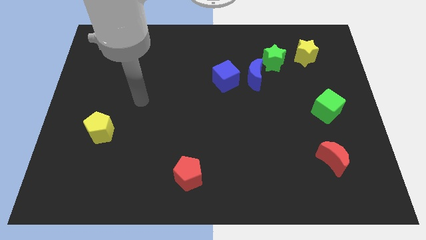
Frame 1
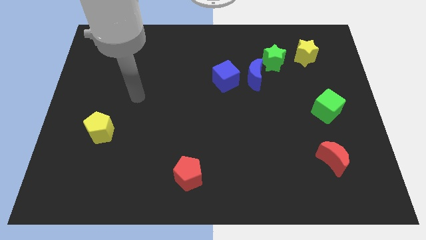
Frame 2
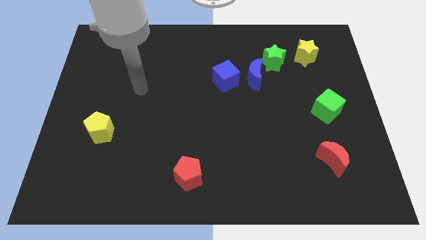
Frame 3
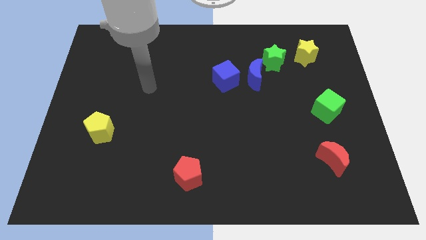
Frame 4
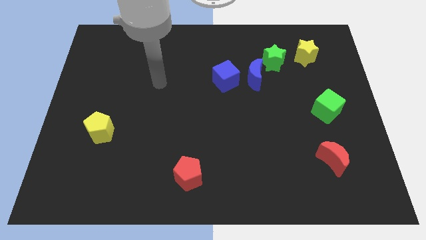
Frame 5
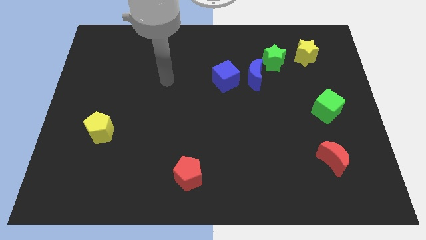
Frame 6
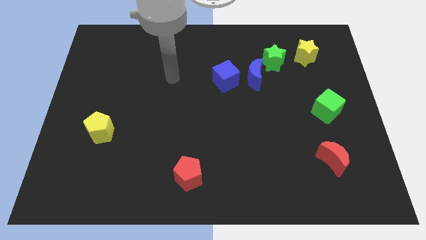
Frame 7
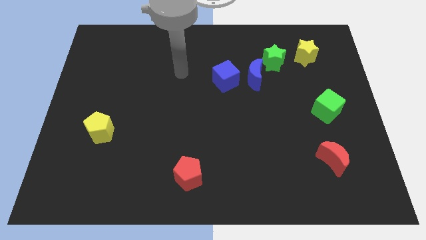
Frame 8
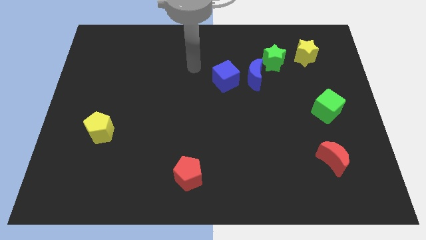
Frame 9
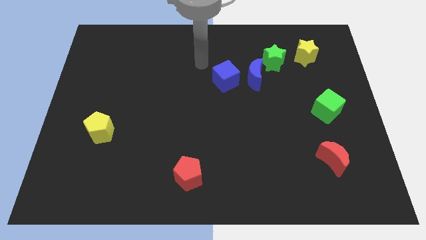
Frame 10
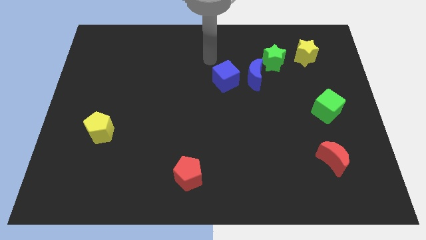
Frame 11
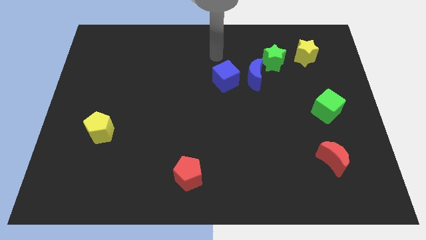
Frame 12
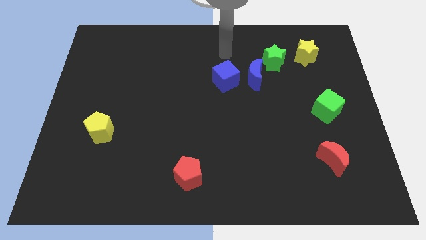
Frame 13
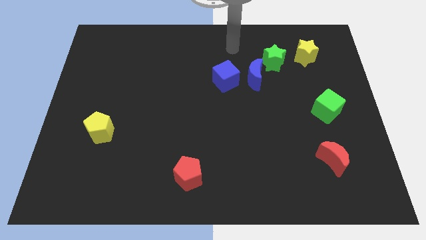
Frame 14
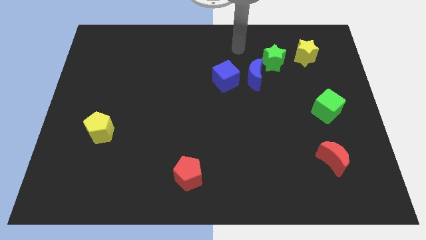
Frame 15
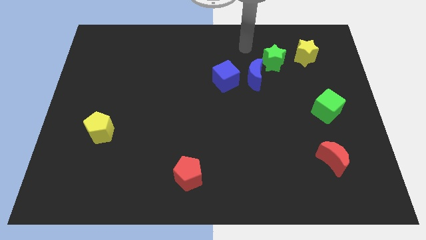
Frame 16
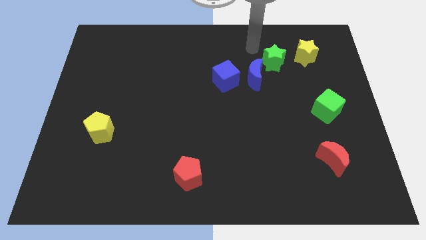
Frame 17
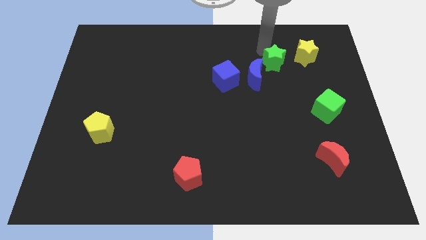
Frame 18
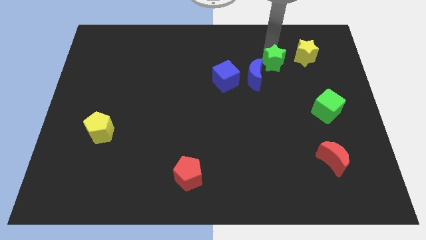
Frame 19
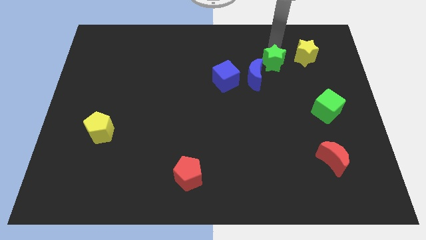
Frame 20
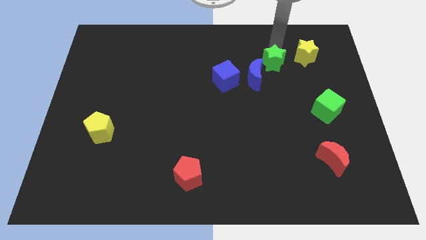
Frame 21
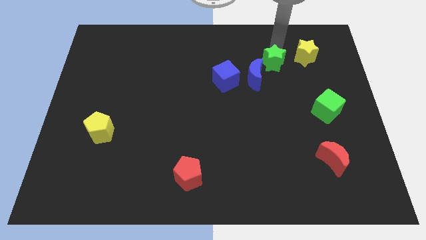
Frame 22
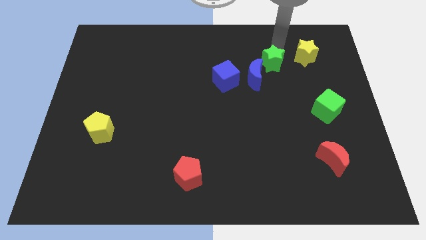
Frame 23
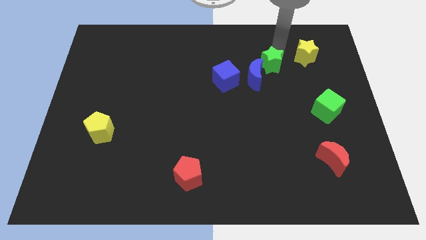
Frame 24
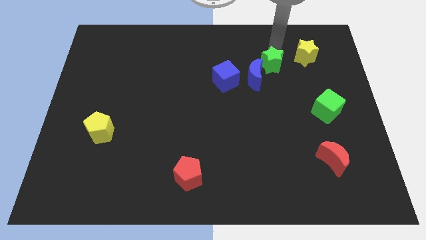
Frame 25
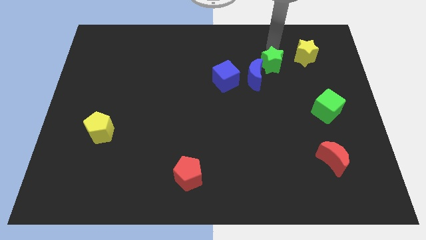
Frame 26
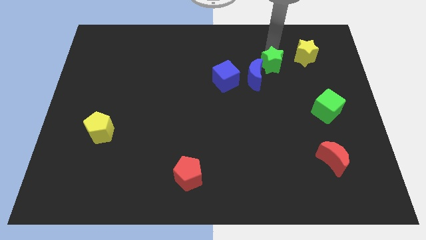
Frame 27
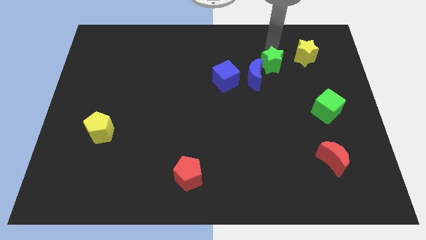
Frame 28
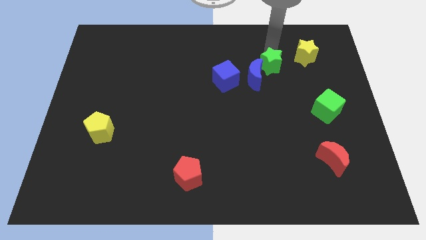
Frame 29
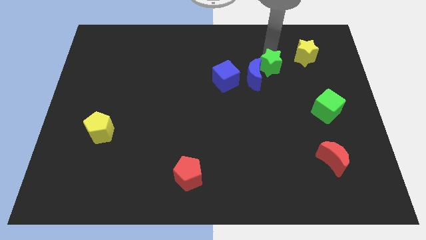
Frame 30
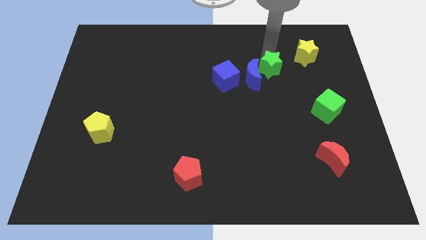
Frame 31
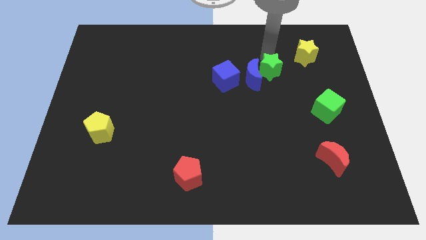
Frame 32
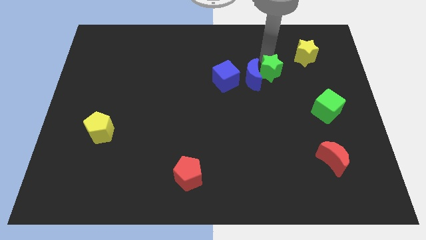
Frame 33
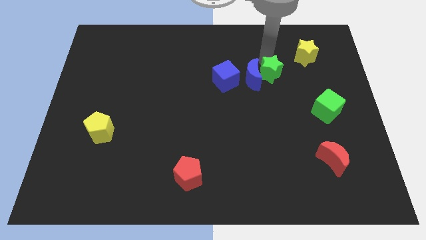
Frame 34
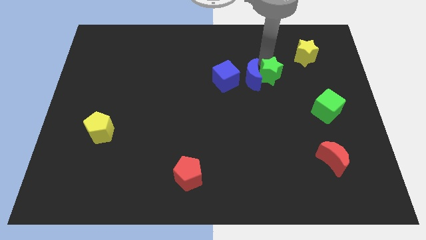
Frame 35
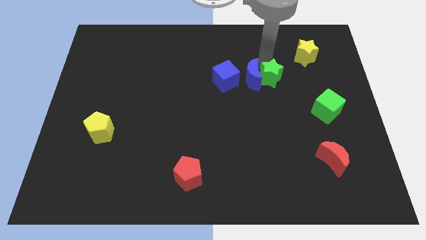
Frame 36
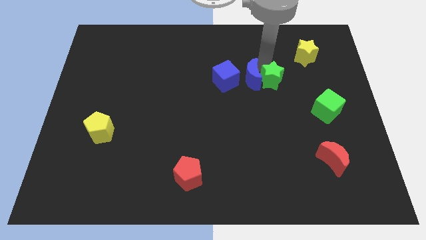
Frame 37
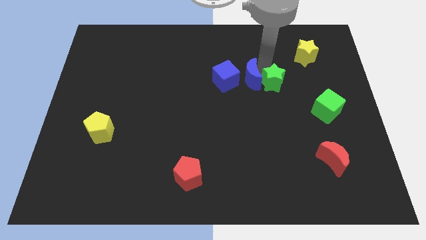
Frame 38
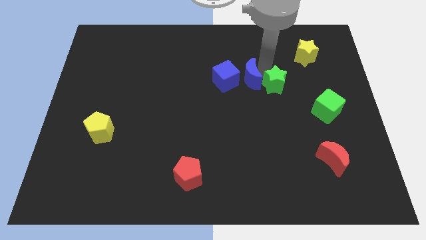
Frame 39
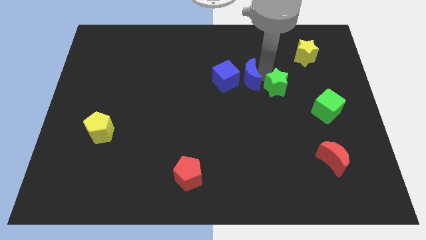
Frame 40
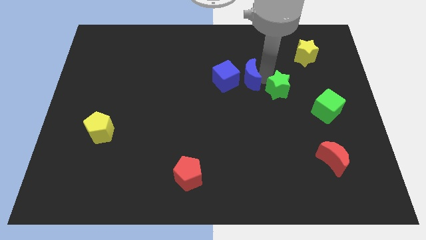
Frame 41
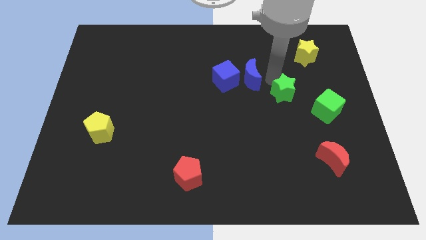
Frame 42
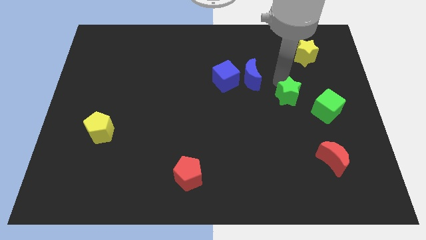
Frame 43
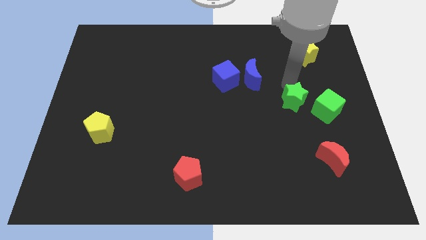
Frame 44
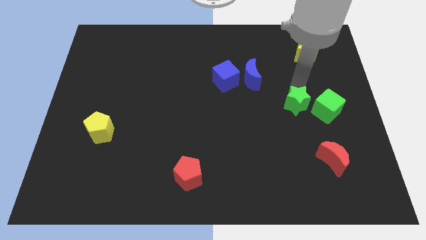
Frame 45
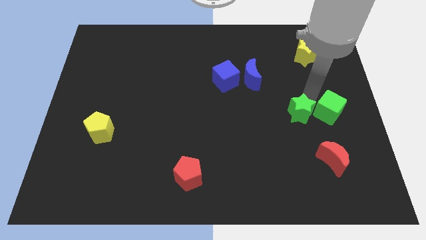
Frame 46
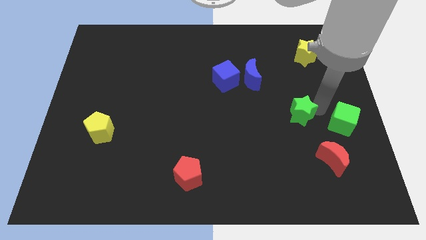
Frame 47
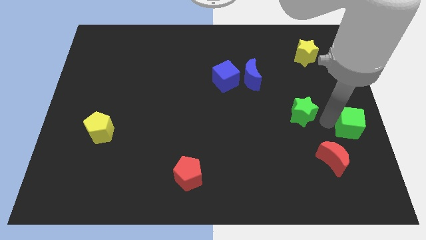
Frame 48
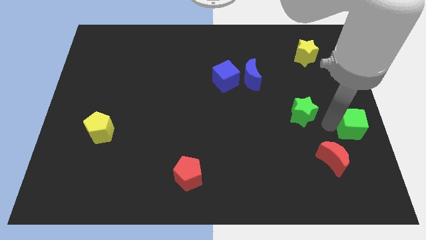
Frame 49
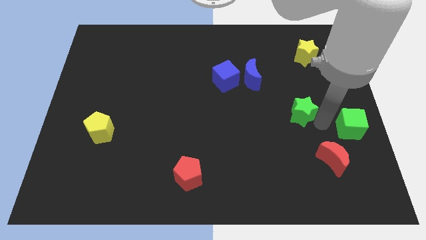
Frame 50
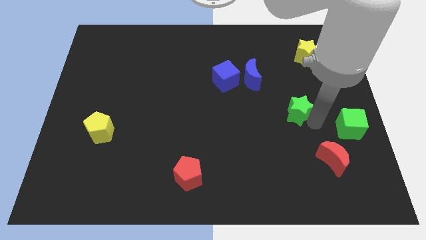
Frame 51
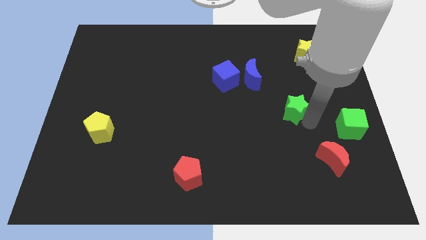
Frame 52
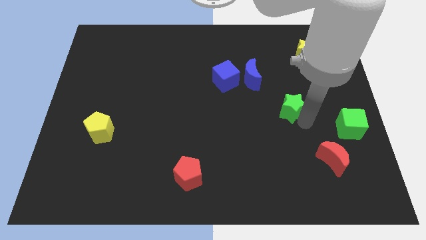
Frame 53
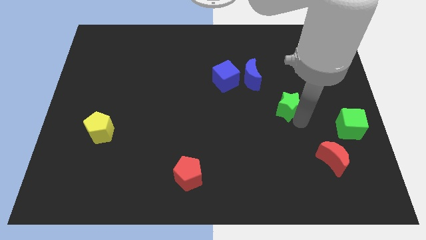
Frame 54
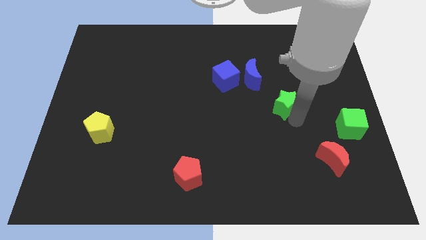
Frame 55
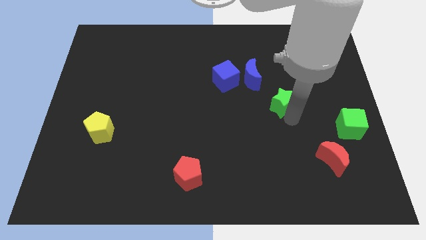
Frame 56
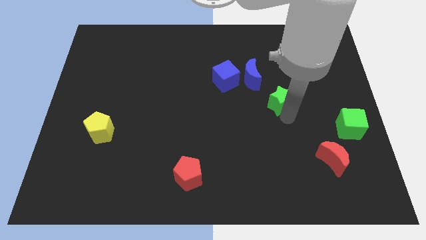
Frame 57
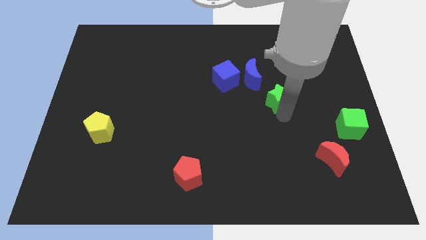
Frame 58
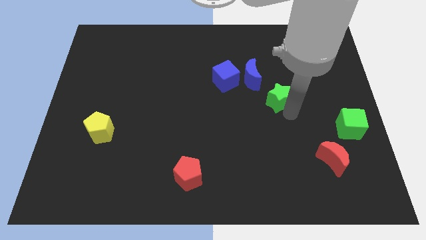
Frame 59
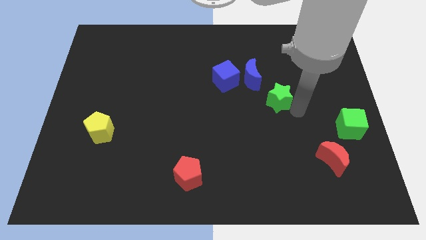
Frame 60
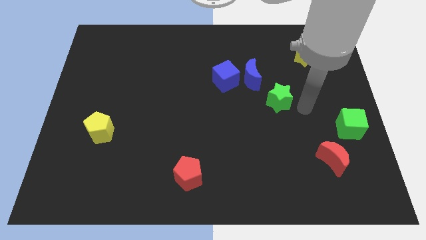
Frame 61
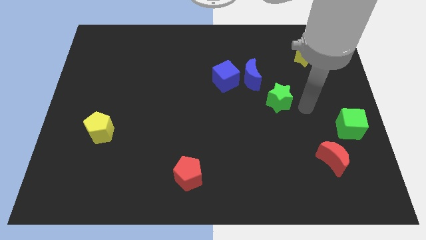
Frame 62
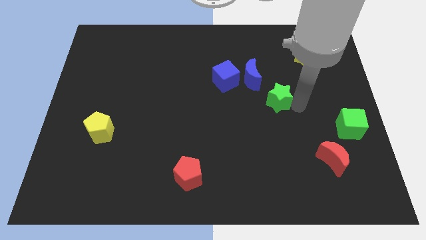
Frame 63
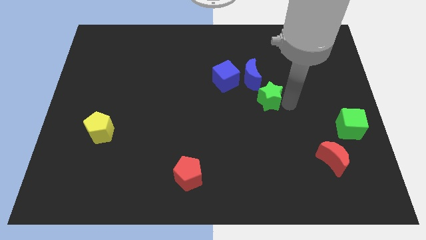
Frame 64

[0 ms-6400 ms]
slide the green star downwards and to the left diagonally slightly

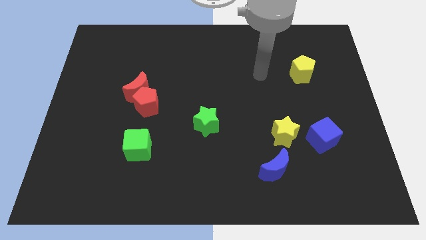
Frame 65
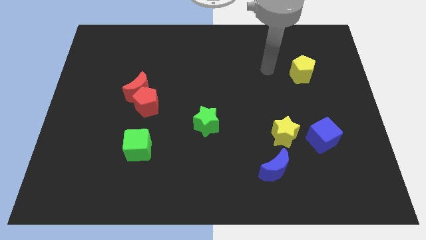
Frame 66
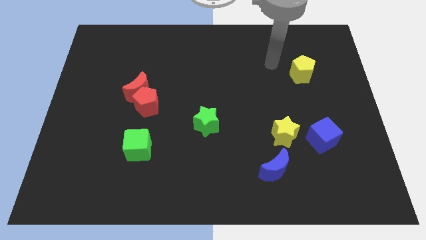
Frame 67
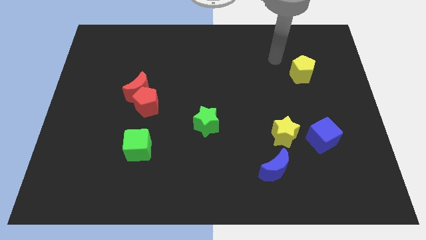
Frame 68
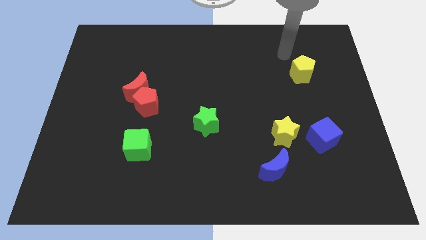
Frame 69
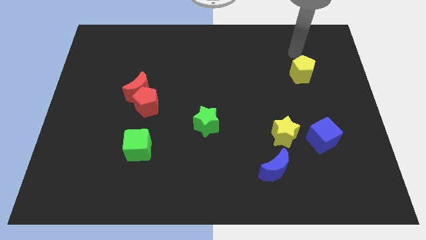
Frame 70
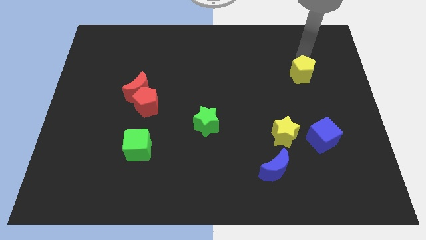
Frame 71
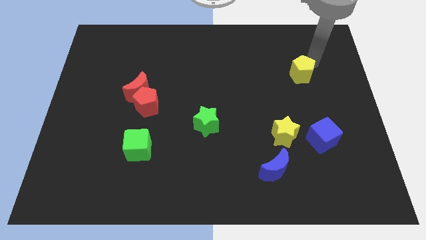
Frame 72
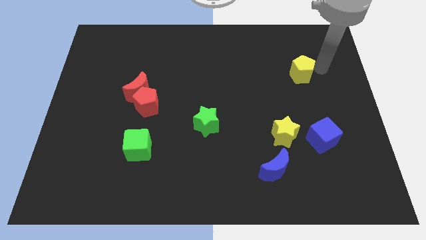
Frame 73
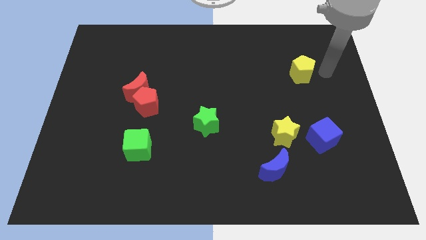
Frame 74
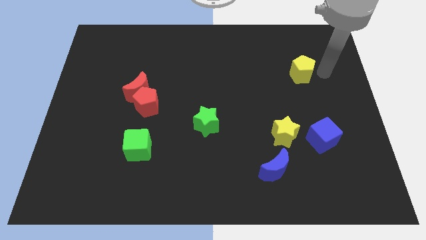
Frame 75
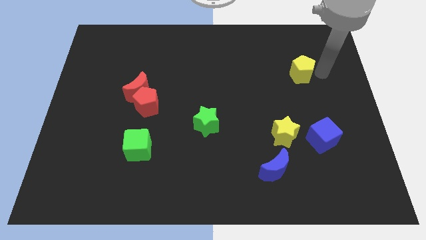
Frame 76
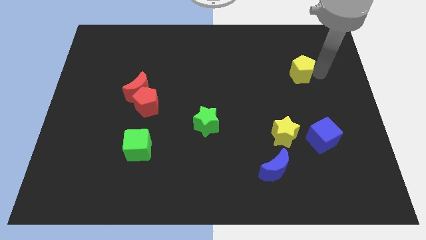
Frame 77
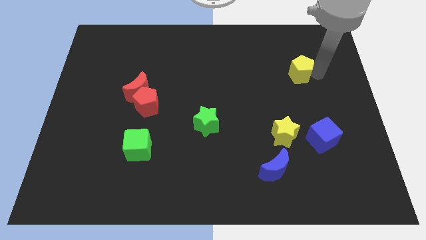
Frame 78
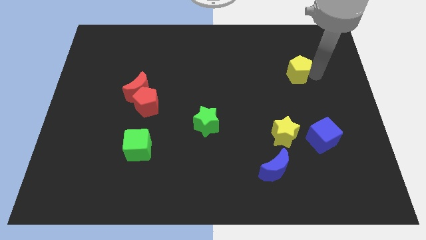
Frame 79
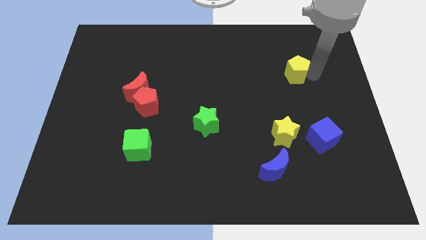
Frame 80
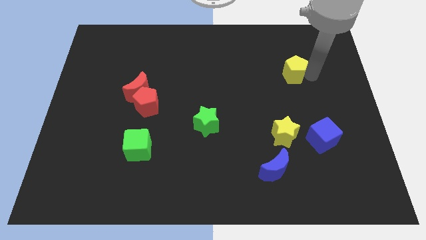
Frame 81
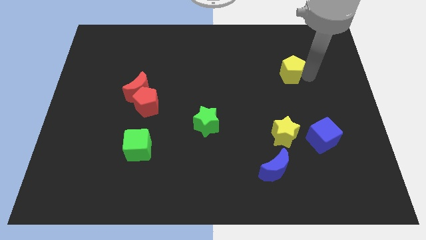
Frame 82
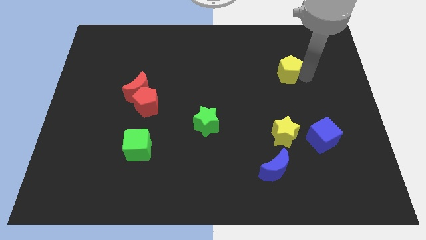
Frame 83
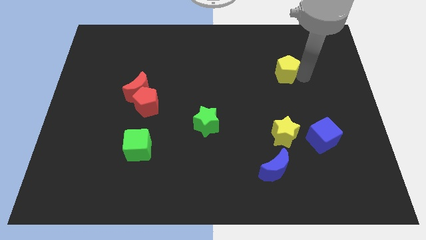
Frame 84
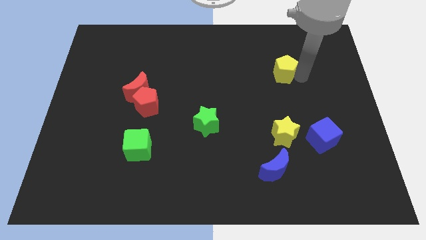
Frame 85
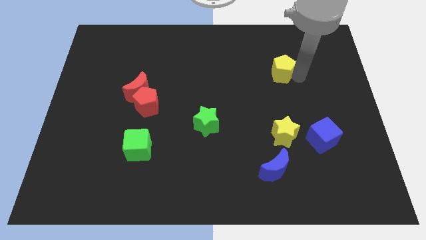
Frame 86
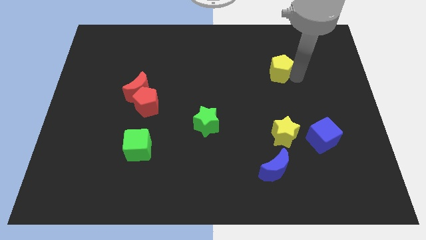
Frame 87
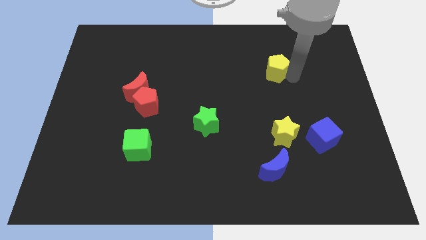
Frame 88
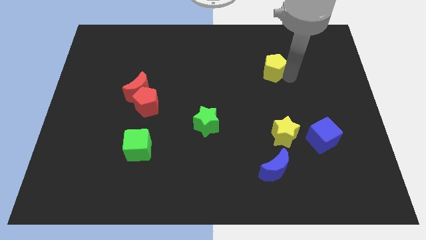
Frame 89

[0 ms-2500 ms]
move the yellow pentagon left somewhat
